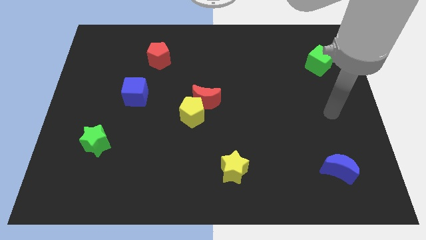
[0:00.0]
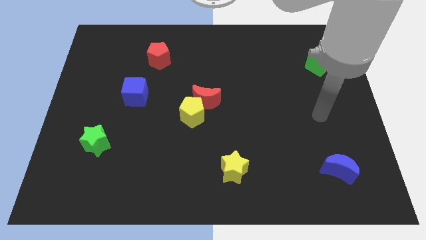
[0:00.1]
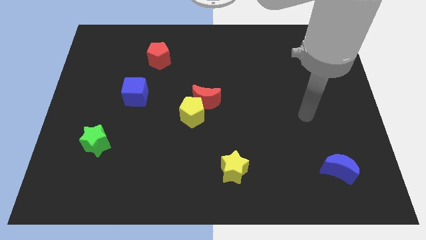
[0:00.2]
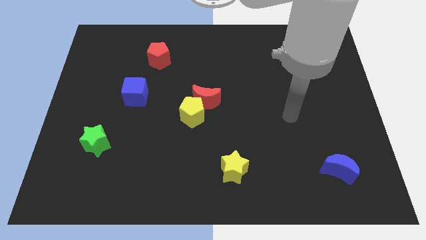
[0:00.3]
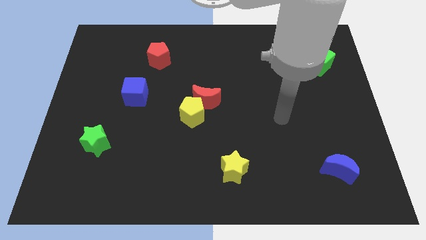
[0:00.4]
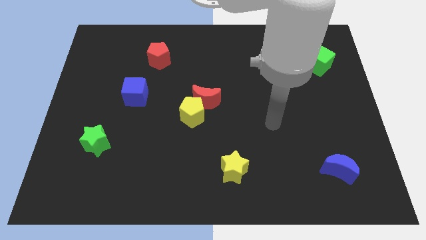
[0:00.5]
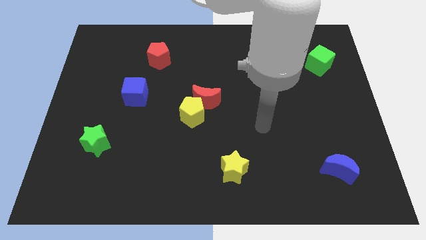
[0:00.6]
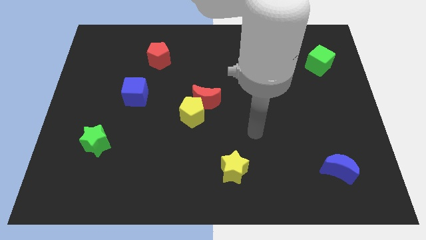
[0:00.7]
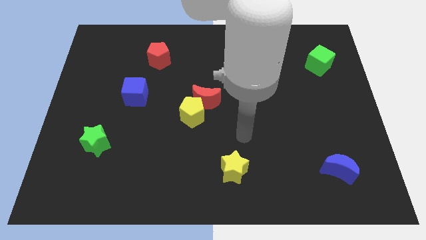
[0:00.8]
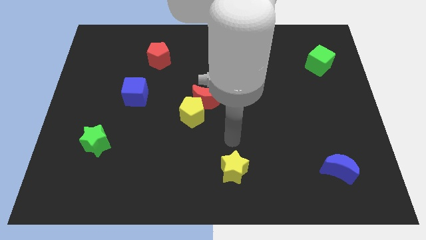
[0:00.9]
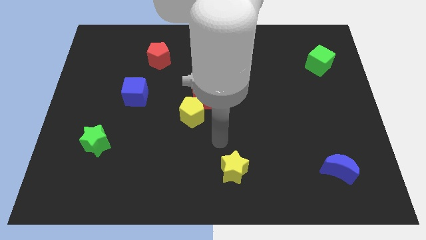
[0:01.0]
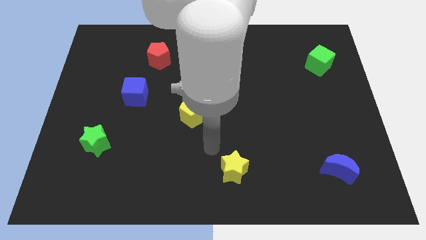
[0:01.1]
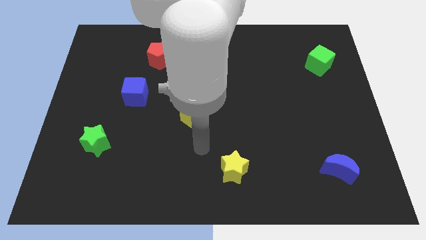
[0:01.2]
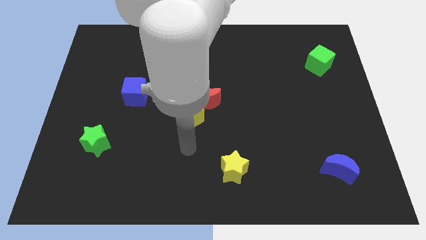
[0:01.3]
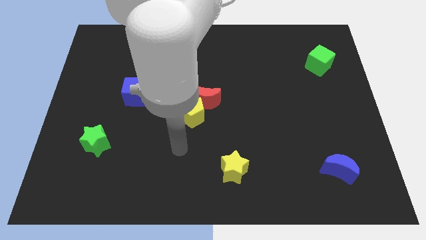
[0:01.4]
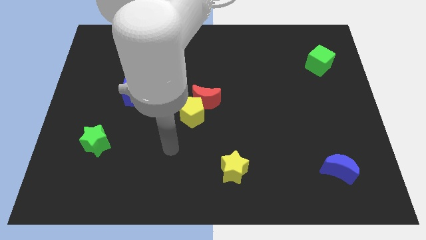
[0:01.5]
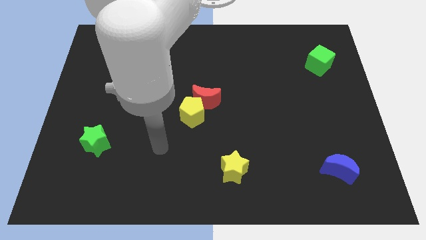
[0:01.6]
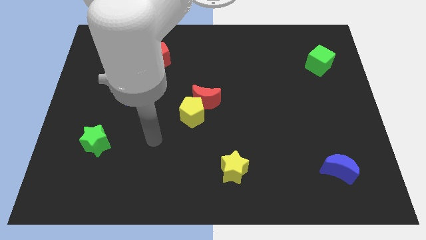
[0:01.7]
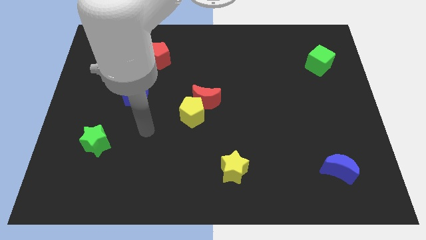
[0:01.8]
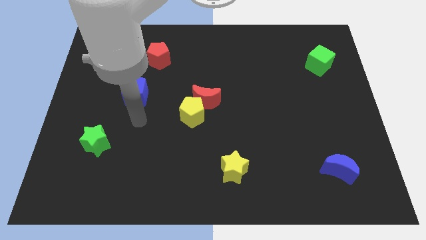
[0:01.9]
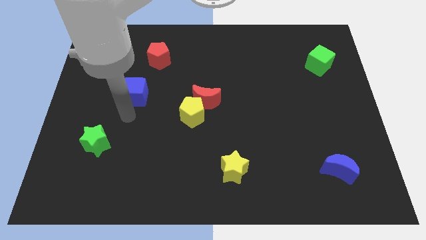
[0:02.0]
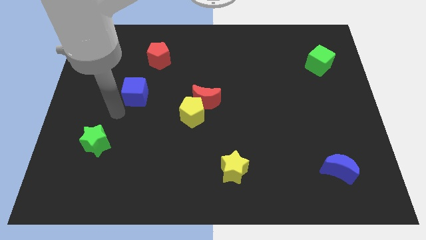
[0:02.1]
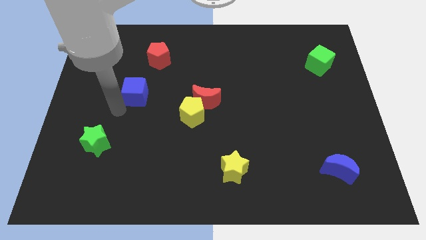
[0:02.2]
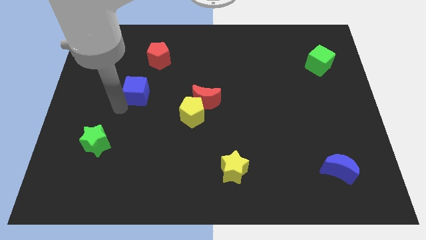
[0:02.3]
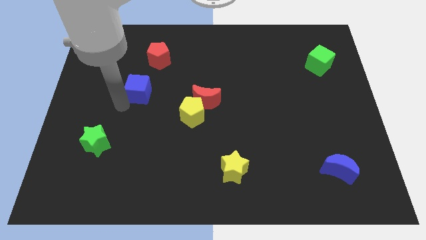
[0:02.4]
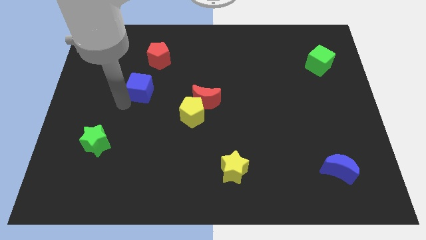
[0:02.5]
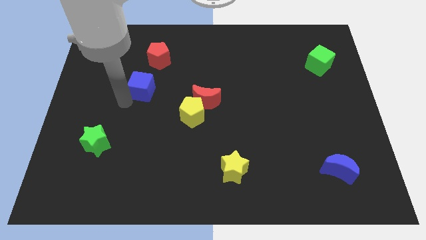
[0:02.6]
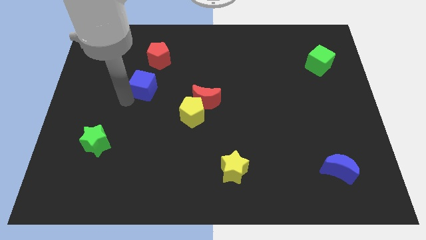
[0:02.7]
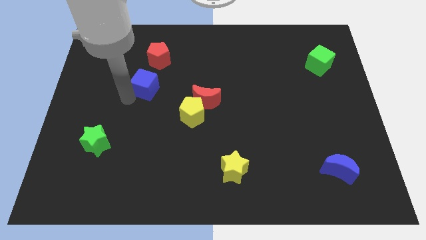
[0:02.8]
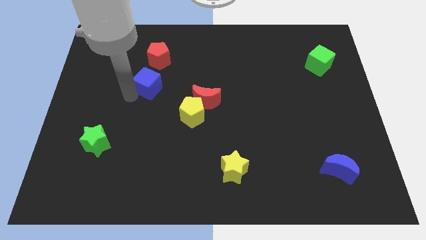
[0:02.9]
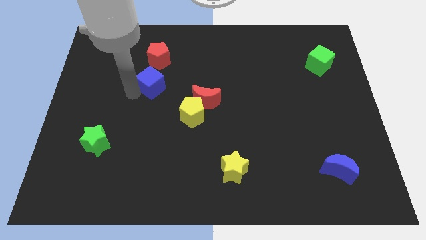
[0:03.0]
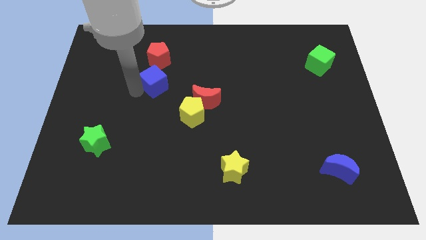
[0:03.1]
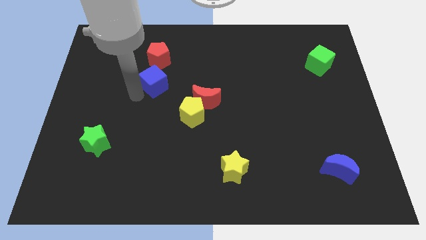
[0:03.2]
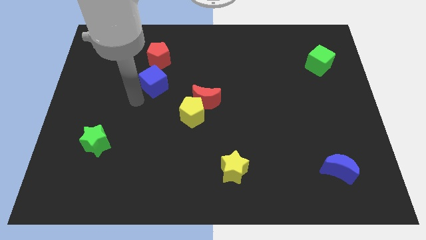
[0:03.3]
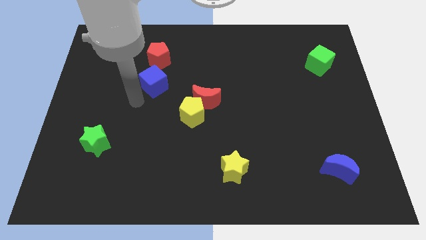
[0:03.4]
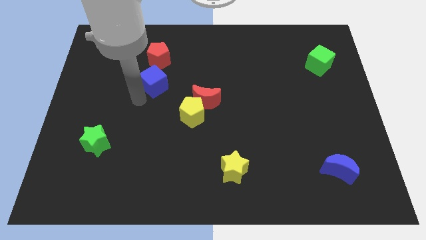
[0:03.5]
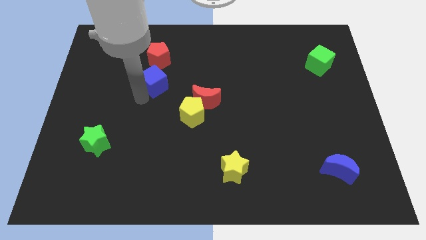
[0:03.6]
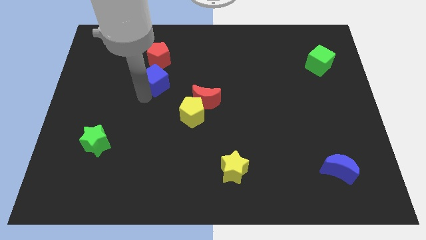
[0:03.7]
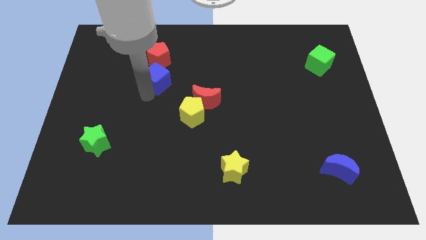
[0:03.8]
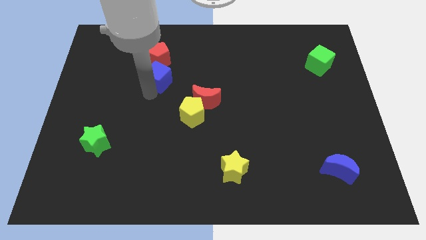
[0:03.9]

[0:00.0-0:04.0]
slightly push the blue cube up and right

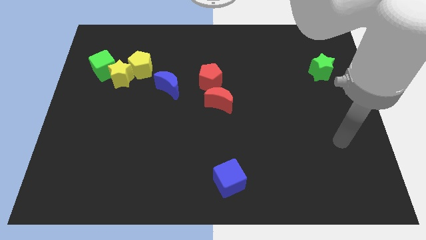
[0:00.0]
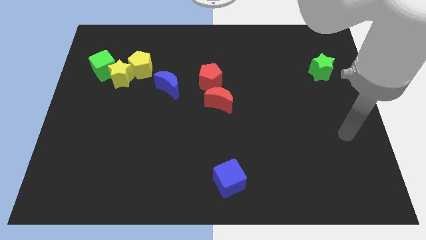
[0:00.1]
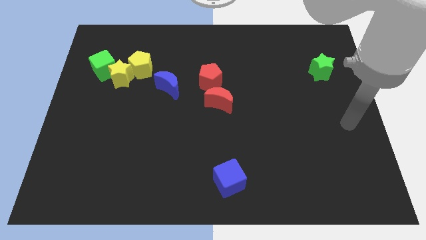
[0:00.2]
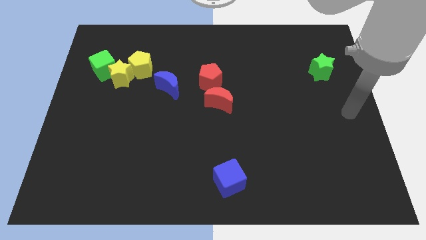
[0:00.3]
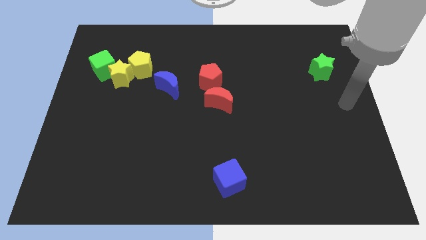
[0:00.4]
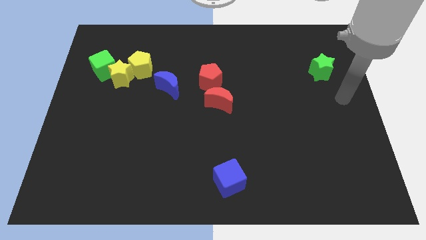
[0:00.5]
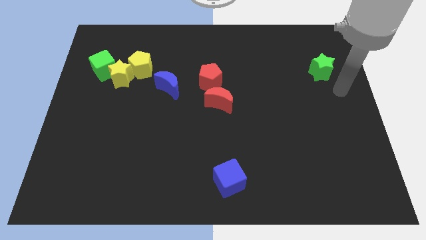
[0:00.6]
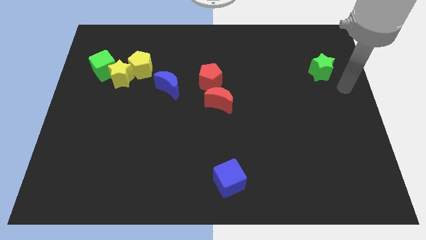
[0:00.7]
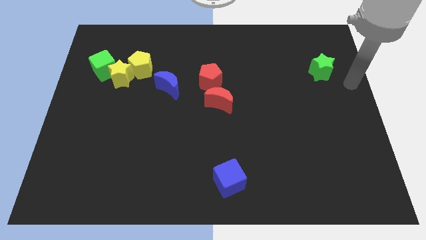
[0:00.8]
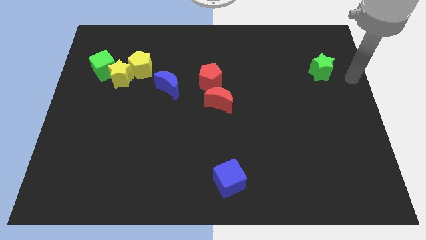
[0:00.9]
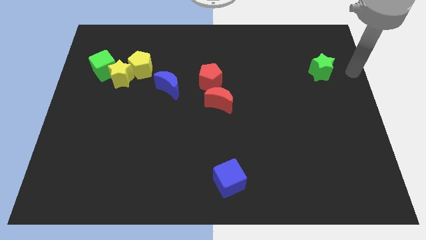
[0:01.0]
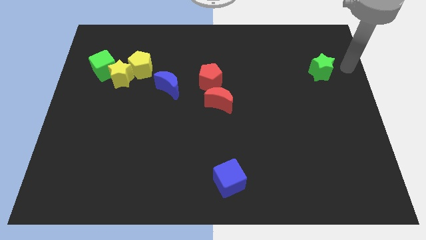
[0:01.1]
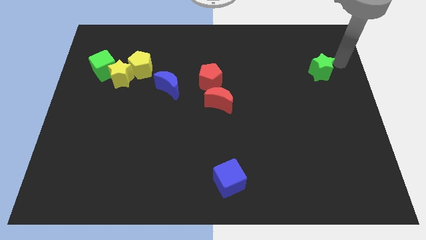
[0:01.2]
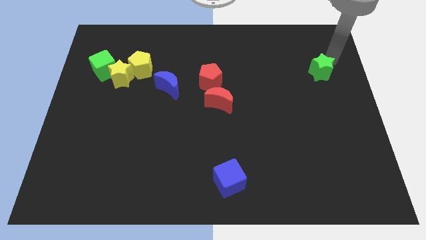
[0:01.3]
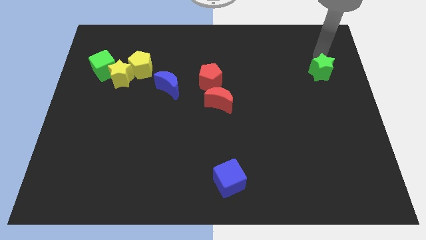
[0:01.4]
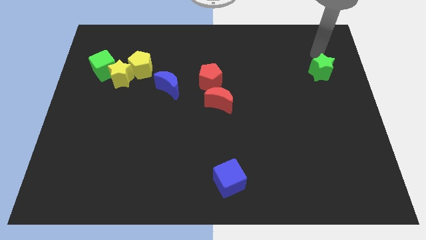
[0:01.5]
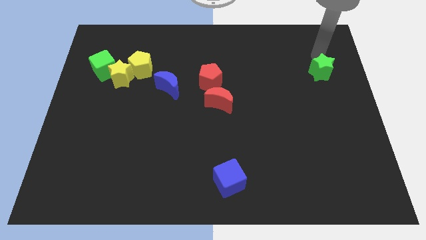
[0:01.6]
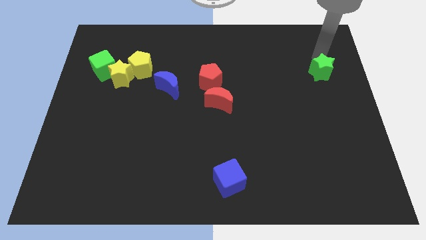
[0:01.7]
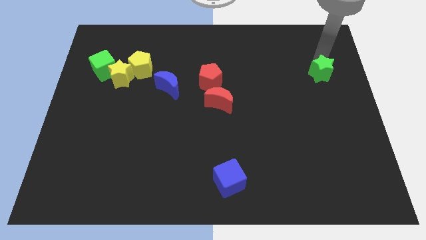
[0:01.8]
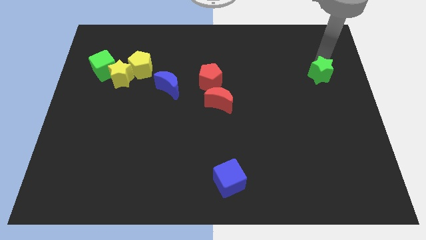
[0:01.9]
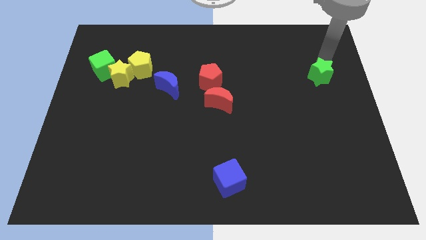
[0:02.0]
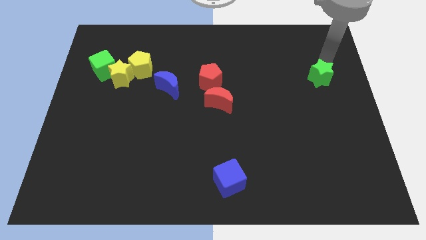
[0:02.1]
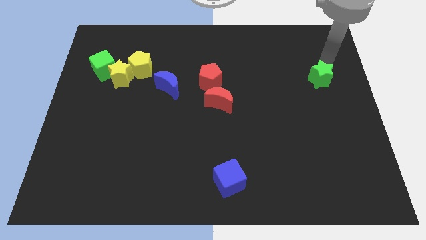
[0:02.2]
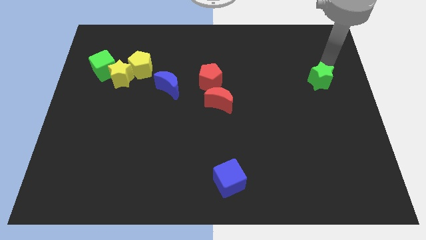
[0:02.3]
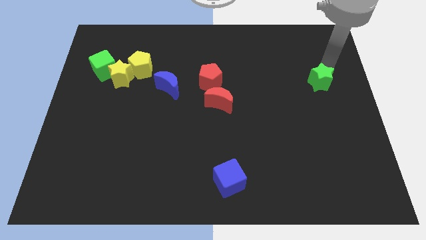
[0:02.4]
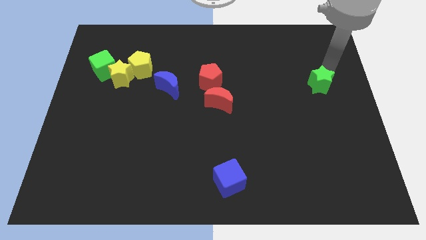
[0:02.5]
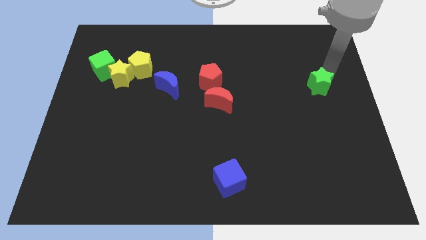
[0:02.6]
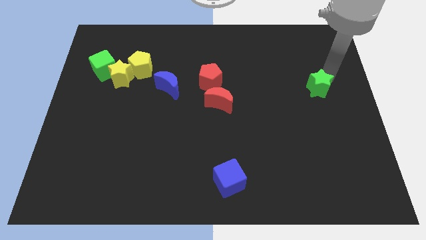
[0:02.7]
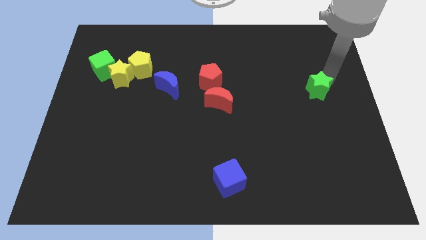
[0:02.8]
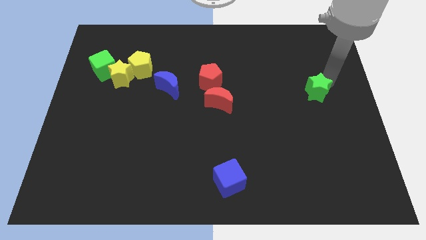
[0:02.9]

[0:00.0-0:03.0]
slide the green star a little downwards

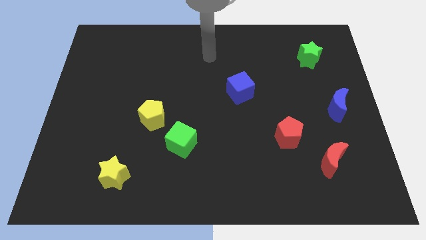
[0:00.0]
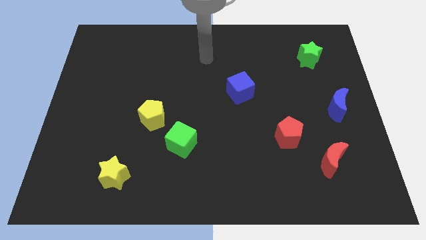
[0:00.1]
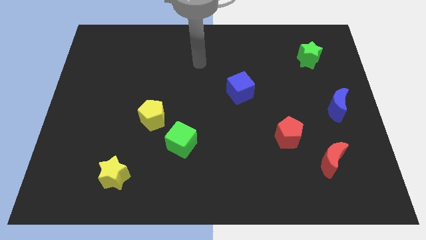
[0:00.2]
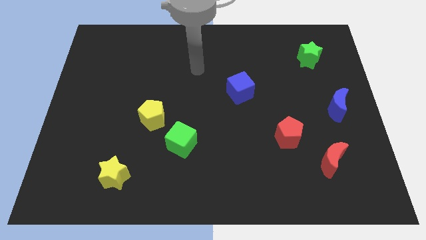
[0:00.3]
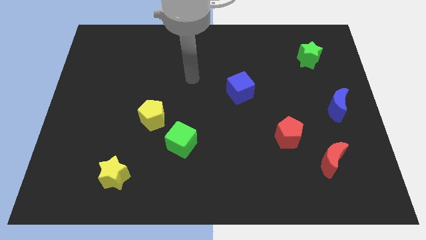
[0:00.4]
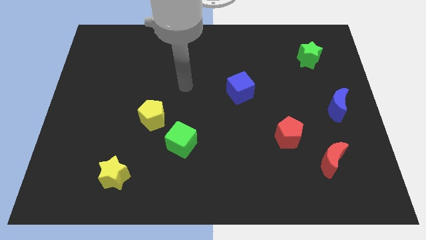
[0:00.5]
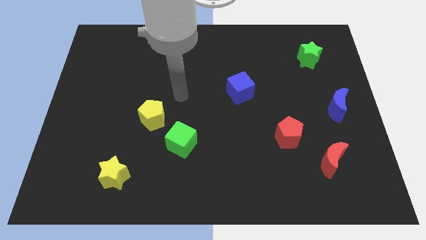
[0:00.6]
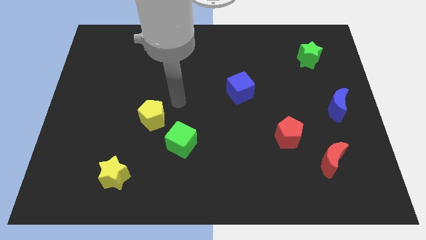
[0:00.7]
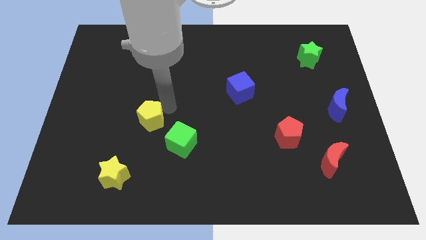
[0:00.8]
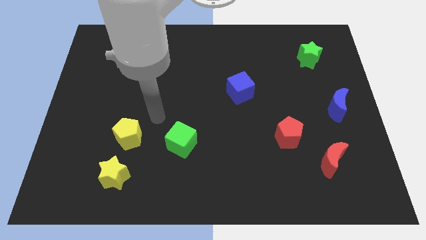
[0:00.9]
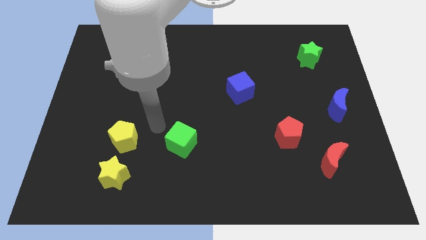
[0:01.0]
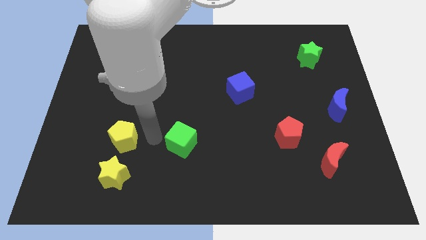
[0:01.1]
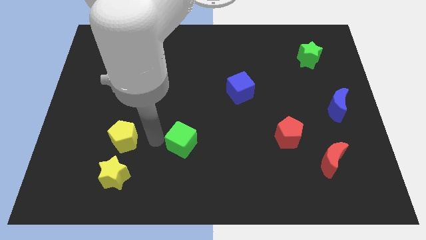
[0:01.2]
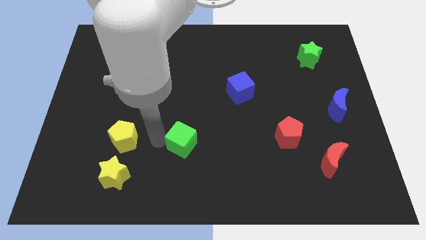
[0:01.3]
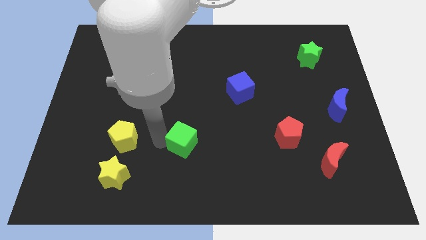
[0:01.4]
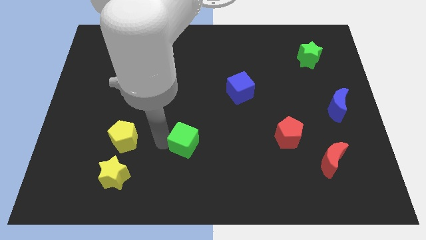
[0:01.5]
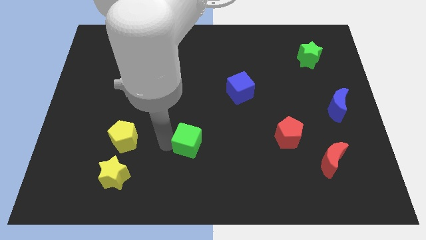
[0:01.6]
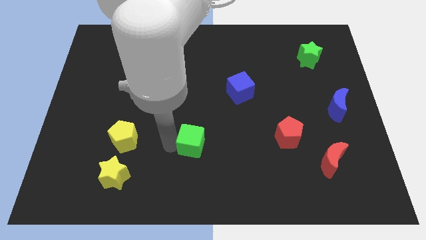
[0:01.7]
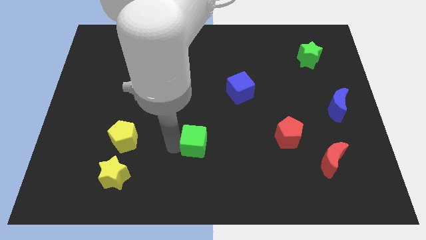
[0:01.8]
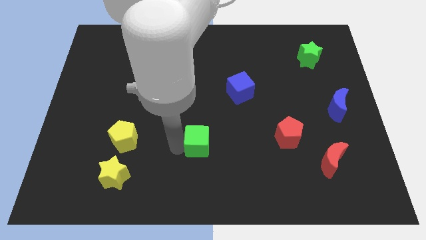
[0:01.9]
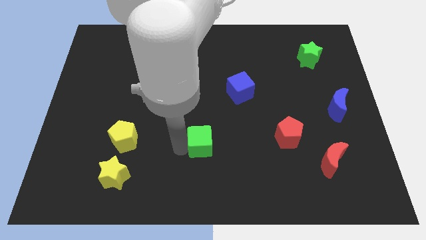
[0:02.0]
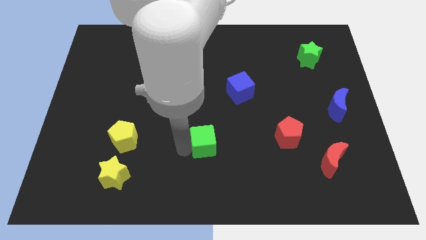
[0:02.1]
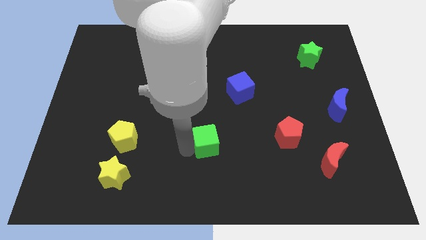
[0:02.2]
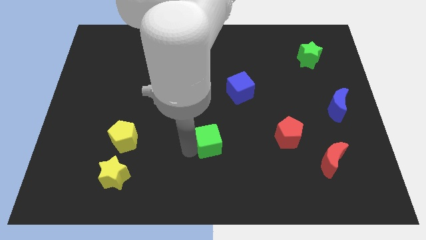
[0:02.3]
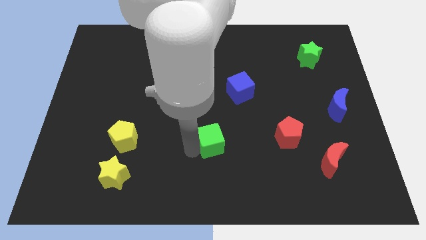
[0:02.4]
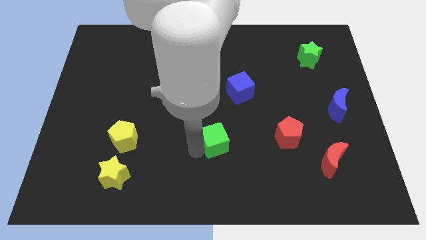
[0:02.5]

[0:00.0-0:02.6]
slightly move the green cube right
